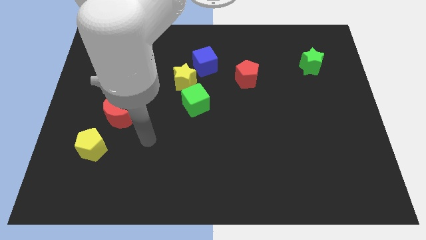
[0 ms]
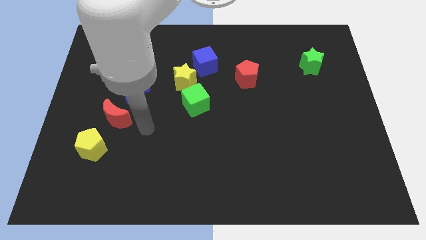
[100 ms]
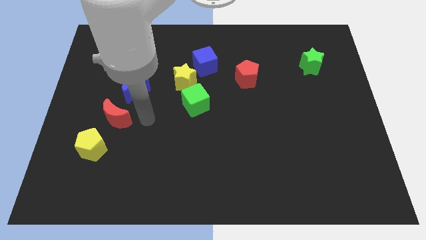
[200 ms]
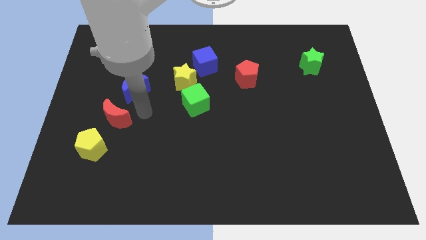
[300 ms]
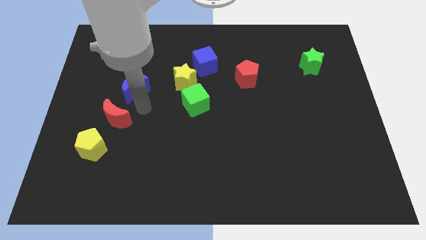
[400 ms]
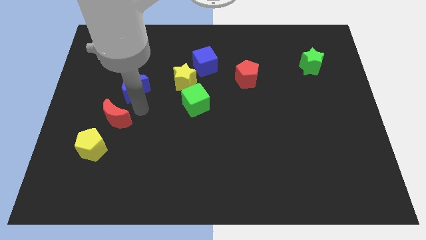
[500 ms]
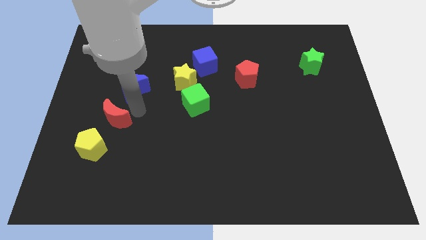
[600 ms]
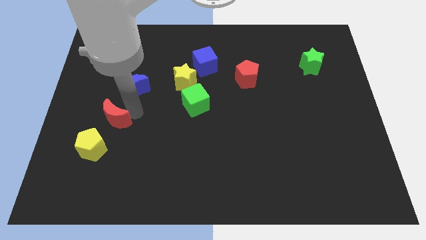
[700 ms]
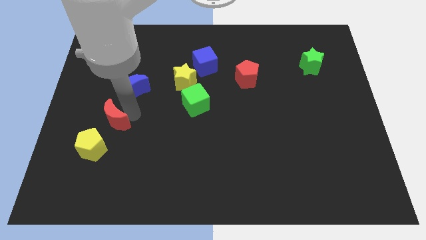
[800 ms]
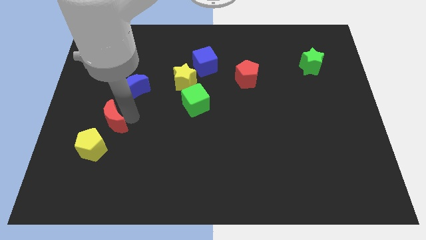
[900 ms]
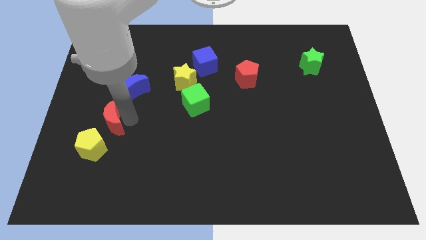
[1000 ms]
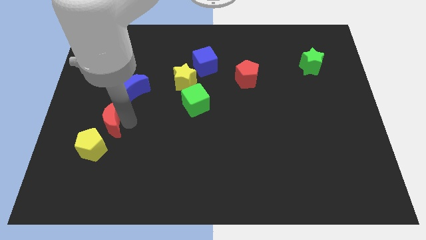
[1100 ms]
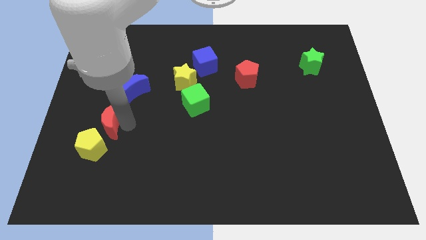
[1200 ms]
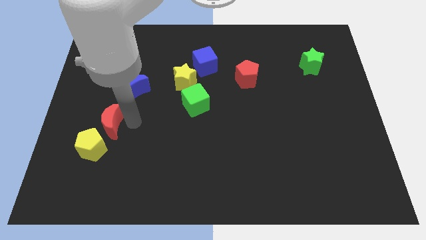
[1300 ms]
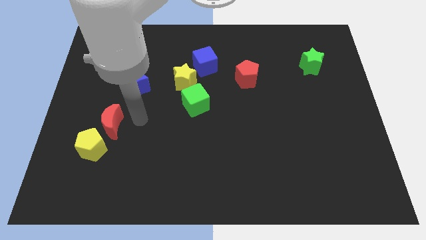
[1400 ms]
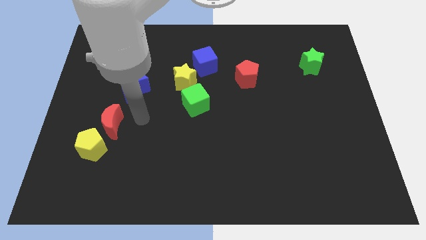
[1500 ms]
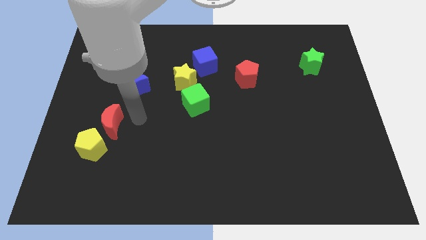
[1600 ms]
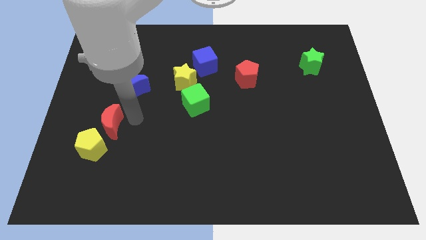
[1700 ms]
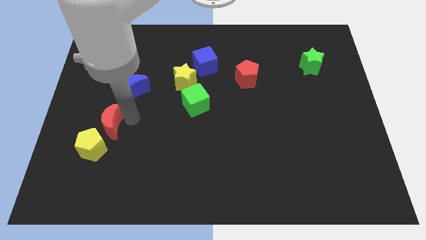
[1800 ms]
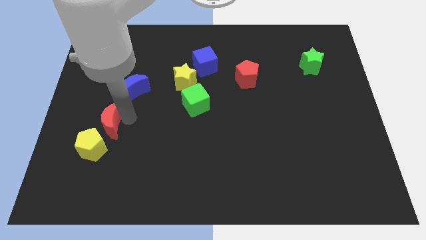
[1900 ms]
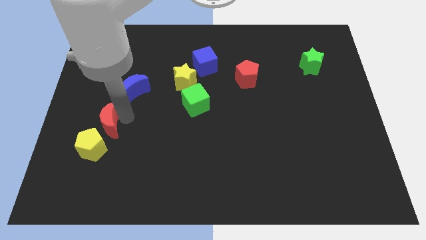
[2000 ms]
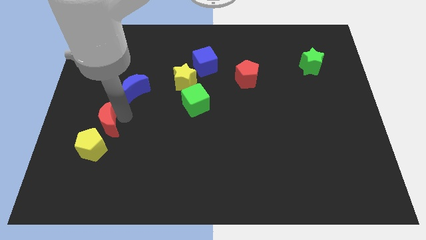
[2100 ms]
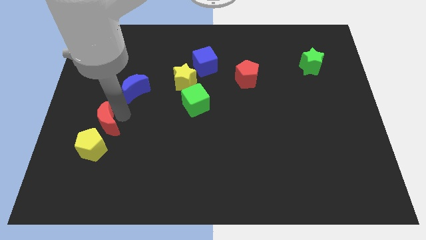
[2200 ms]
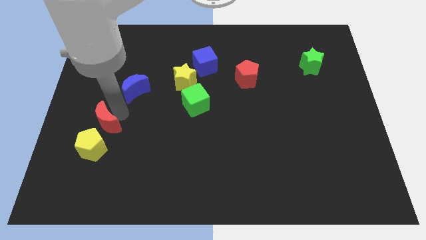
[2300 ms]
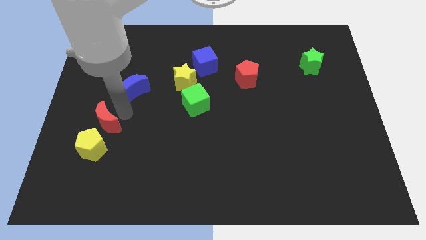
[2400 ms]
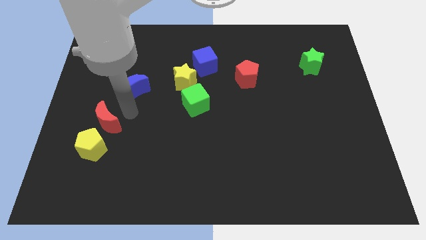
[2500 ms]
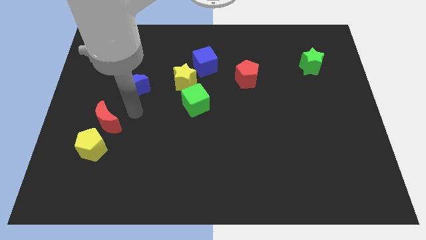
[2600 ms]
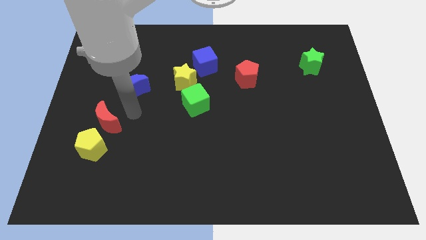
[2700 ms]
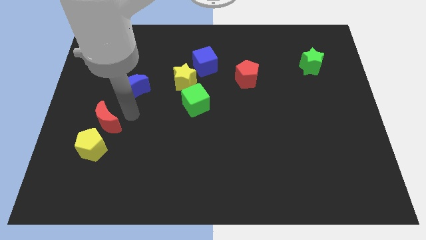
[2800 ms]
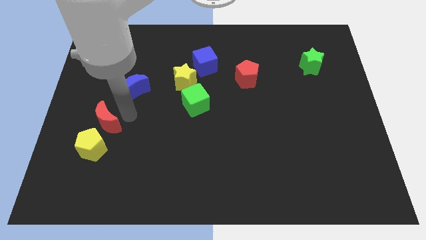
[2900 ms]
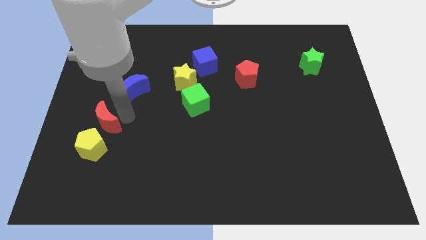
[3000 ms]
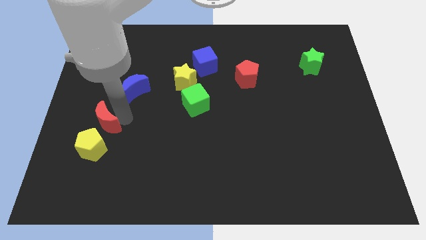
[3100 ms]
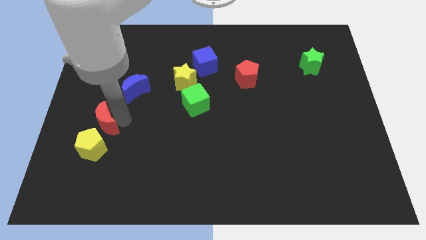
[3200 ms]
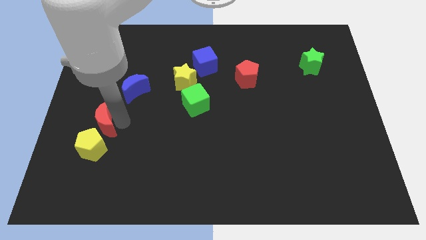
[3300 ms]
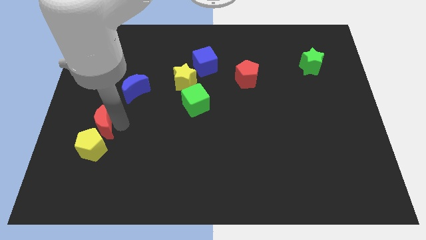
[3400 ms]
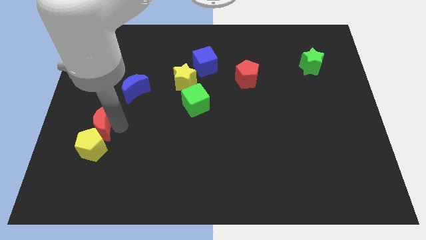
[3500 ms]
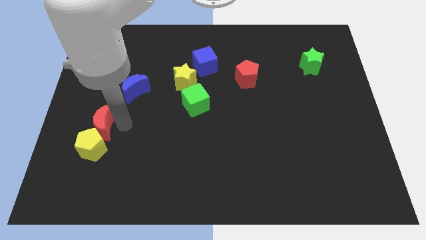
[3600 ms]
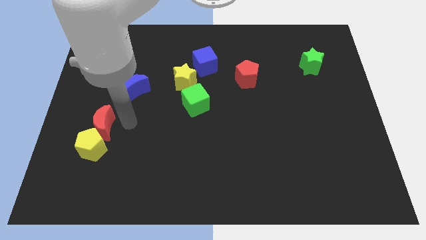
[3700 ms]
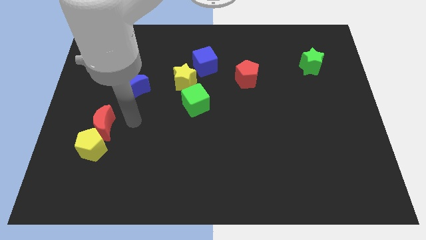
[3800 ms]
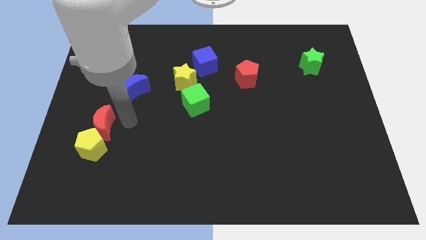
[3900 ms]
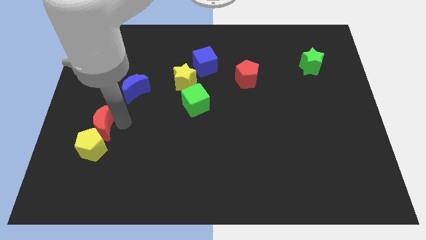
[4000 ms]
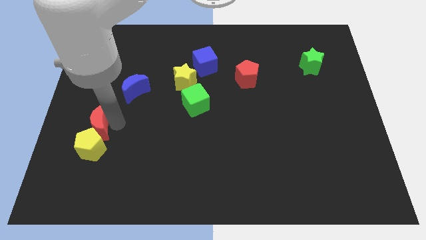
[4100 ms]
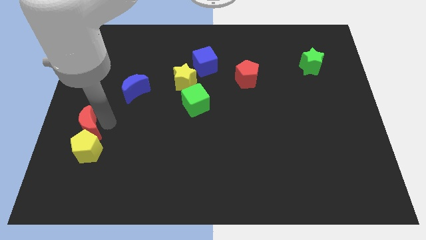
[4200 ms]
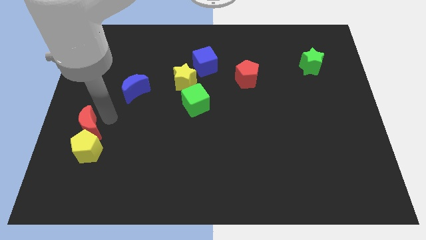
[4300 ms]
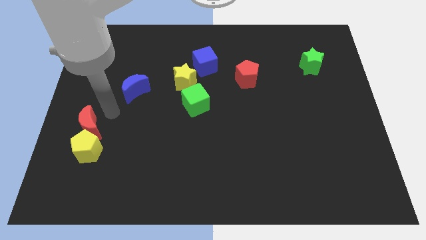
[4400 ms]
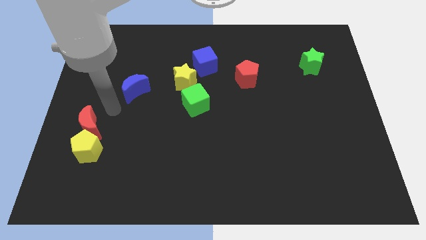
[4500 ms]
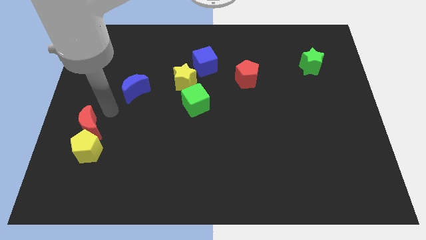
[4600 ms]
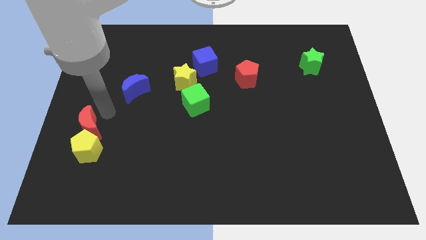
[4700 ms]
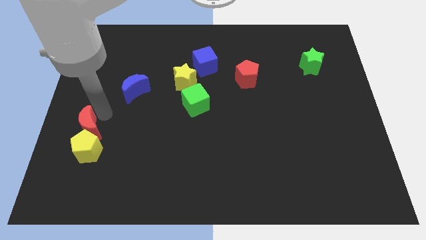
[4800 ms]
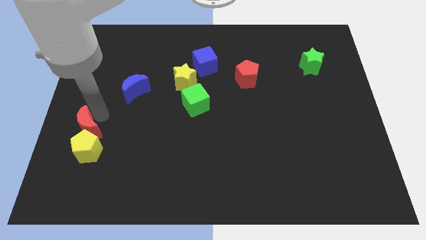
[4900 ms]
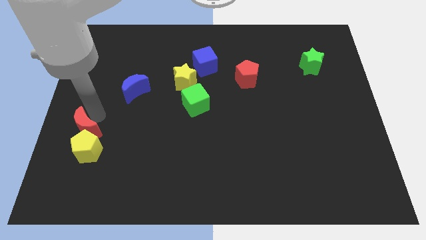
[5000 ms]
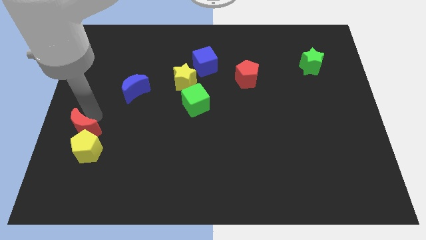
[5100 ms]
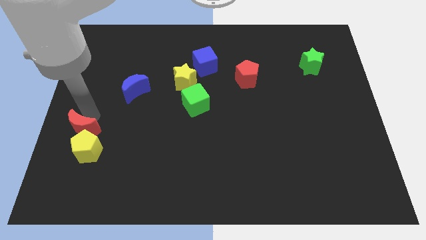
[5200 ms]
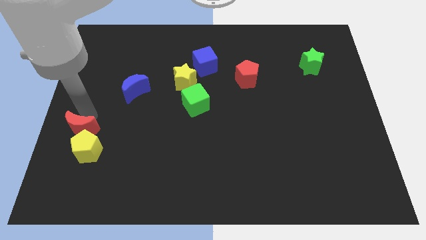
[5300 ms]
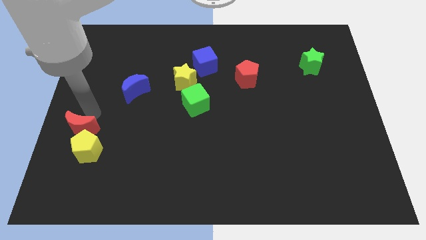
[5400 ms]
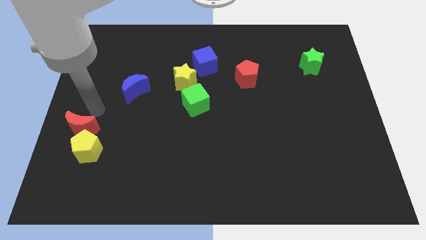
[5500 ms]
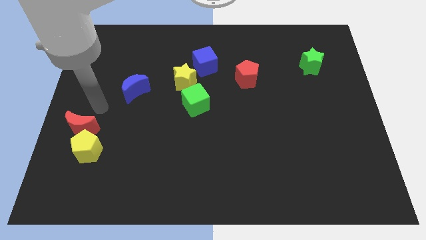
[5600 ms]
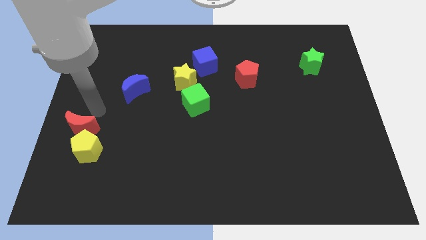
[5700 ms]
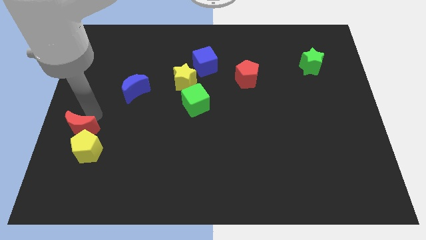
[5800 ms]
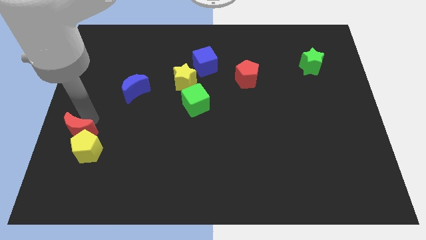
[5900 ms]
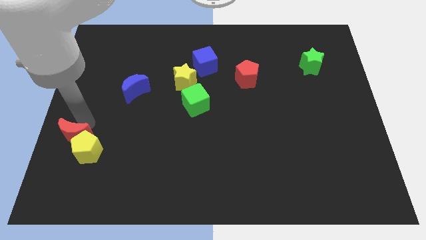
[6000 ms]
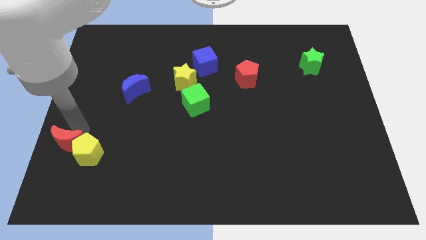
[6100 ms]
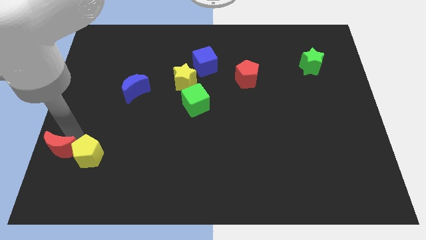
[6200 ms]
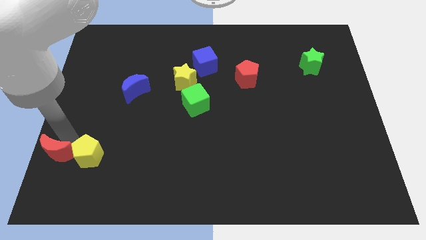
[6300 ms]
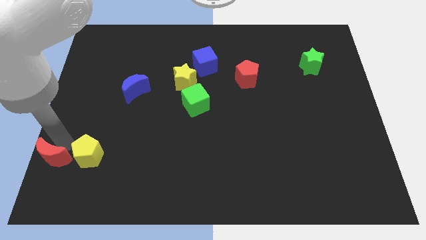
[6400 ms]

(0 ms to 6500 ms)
put the red moon to the lower left corner

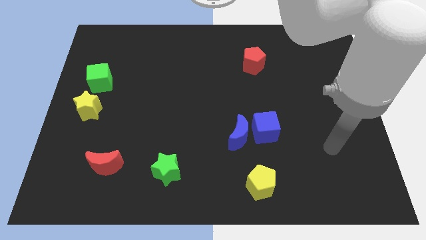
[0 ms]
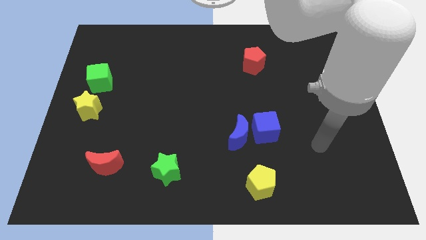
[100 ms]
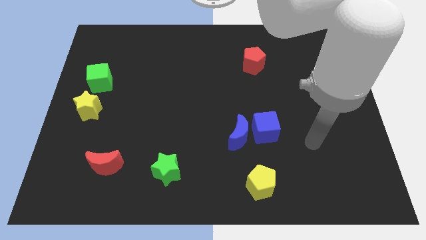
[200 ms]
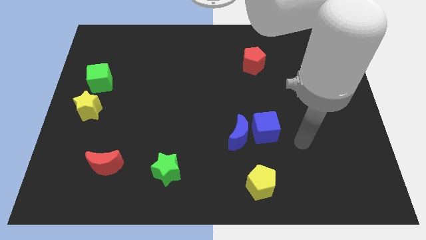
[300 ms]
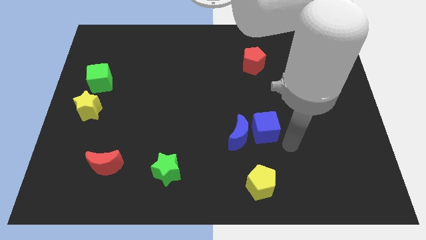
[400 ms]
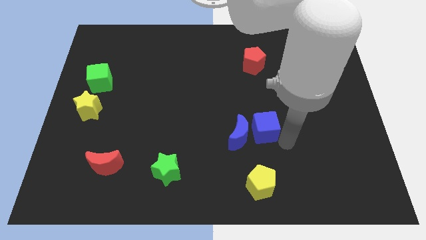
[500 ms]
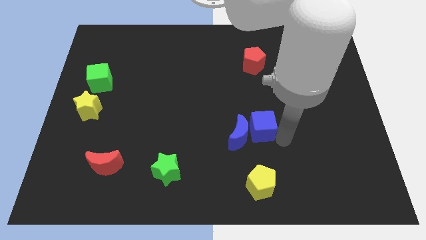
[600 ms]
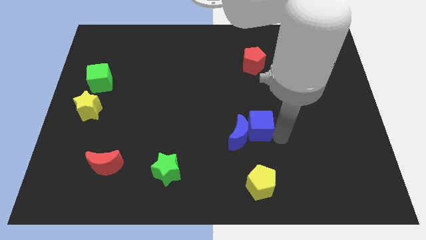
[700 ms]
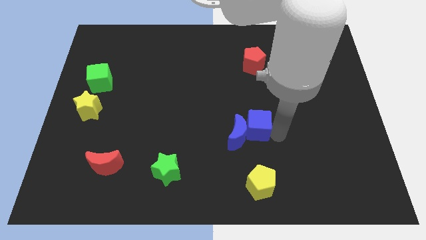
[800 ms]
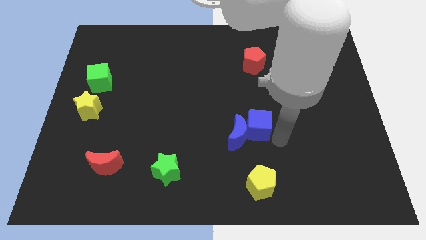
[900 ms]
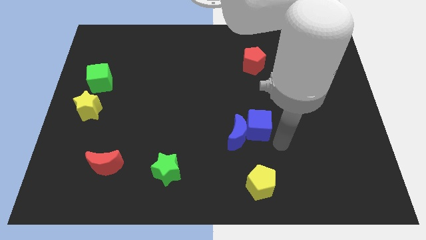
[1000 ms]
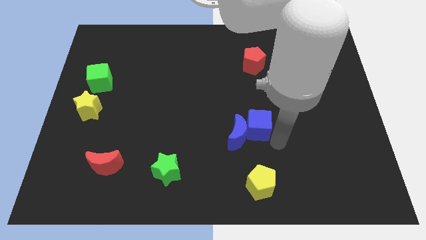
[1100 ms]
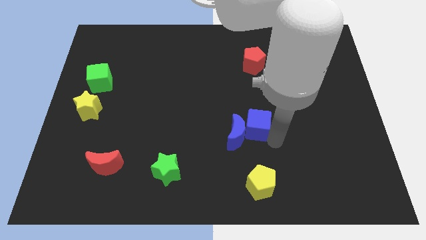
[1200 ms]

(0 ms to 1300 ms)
put the blue cube to the center
